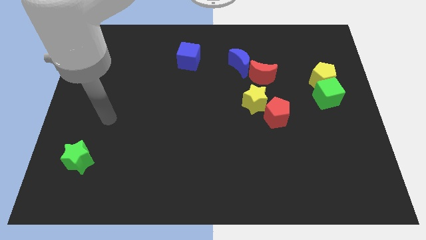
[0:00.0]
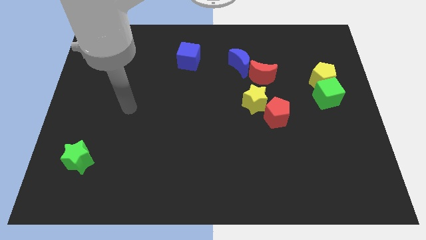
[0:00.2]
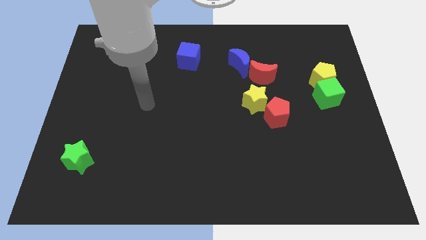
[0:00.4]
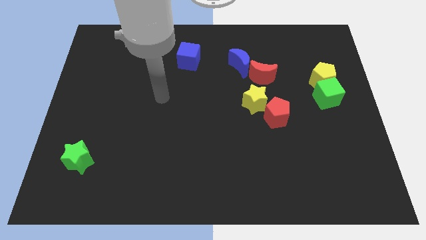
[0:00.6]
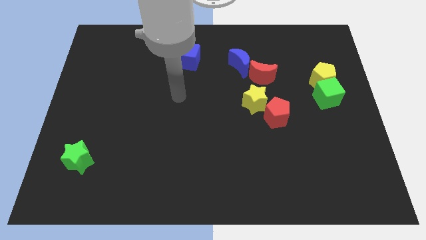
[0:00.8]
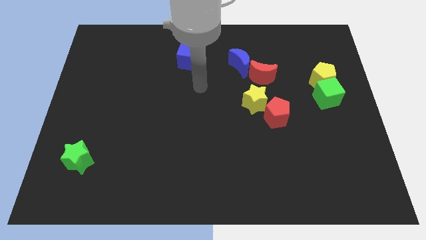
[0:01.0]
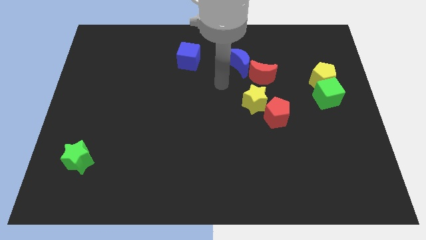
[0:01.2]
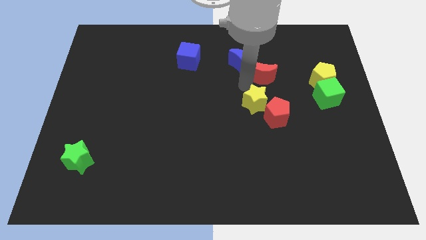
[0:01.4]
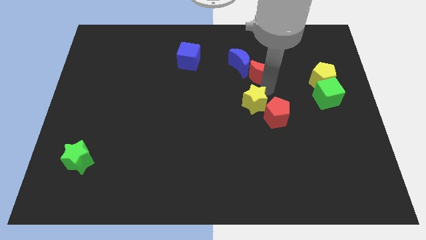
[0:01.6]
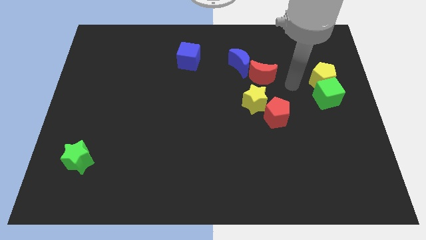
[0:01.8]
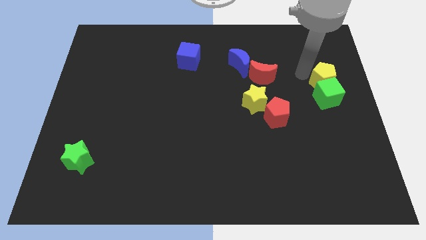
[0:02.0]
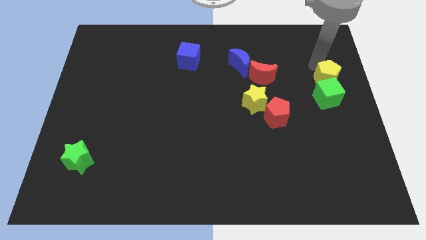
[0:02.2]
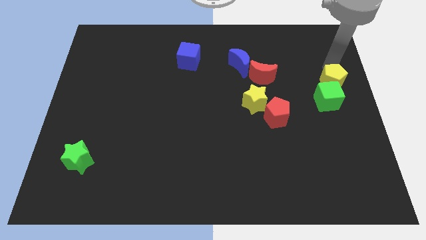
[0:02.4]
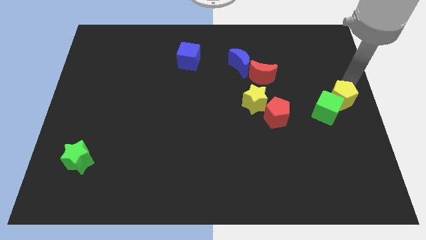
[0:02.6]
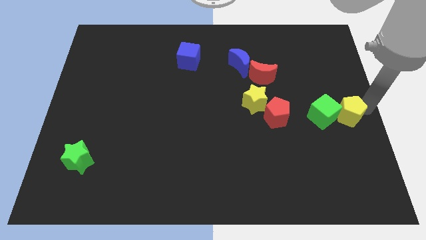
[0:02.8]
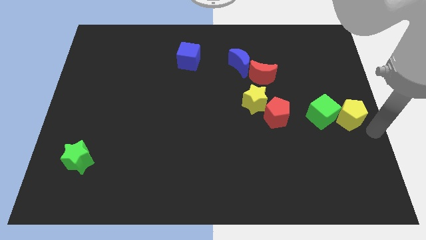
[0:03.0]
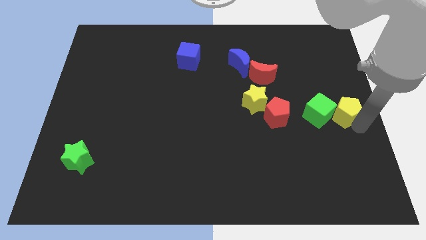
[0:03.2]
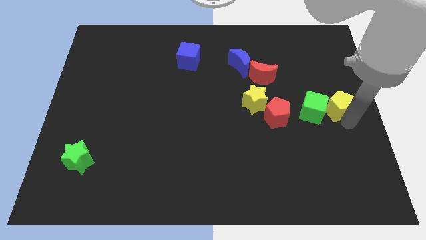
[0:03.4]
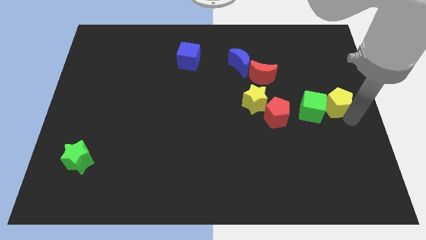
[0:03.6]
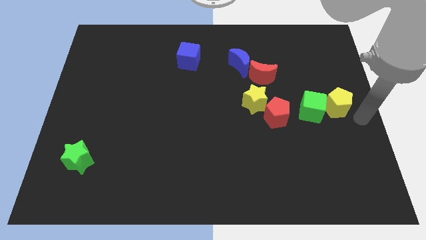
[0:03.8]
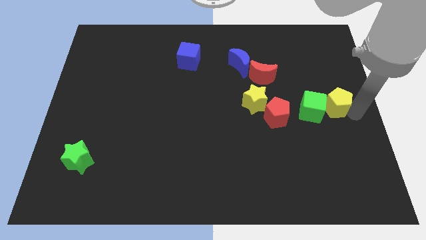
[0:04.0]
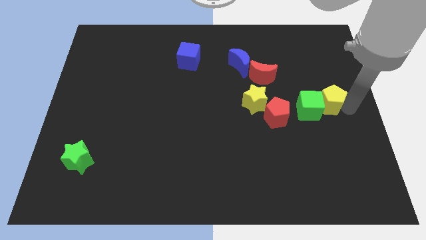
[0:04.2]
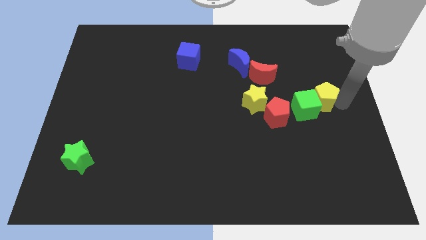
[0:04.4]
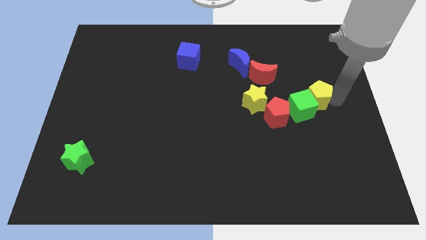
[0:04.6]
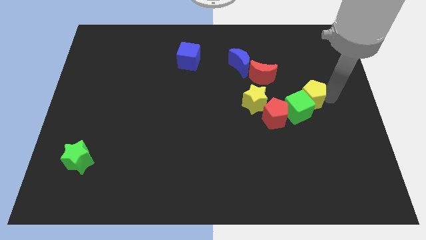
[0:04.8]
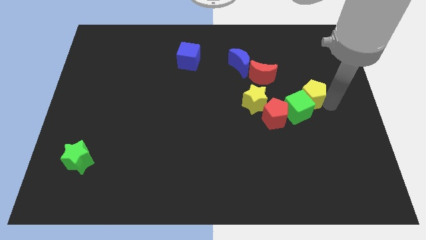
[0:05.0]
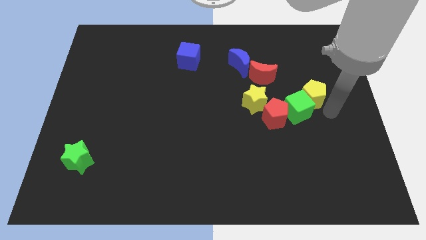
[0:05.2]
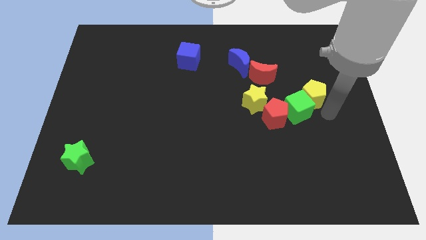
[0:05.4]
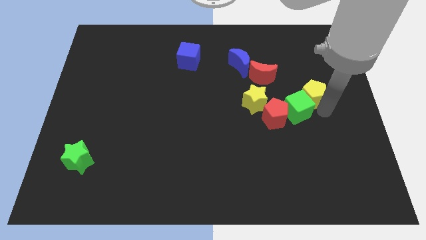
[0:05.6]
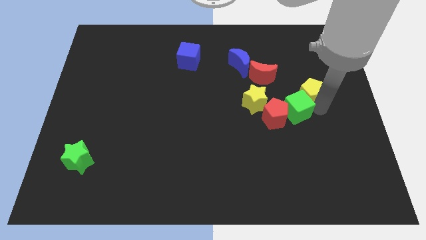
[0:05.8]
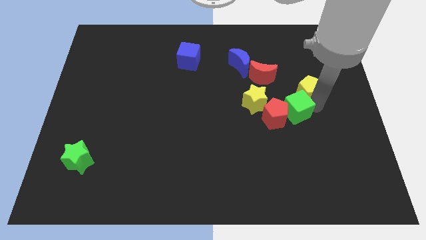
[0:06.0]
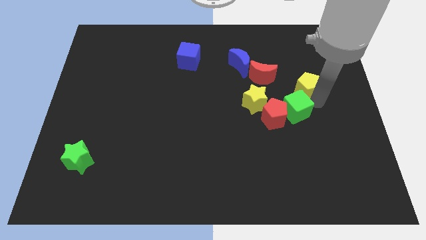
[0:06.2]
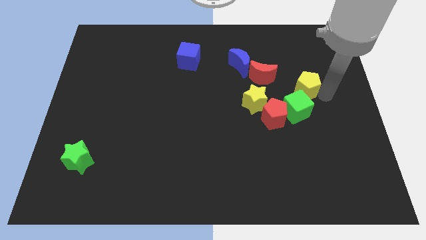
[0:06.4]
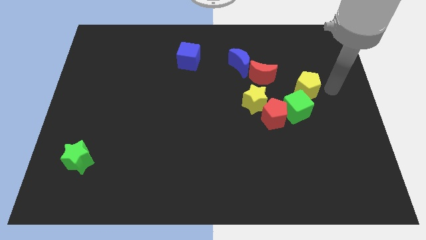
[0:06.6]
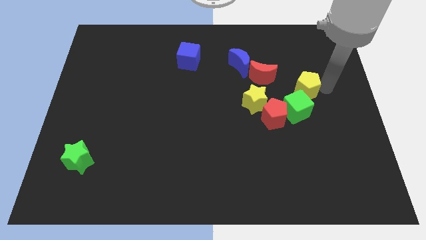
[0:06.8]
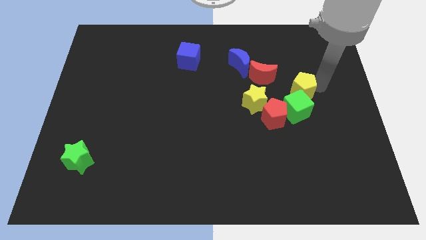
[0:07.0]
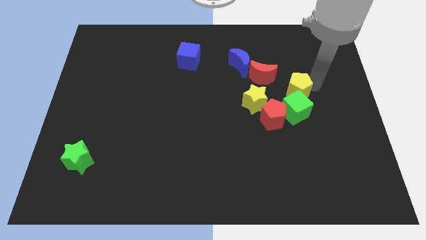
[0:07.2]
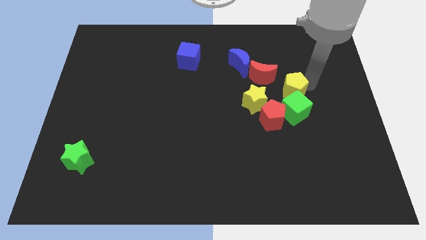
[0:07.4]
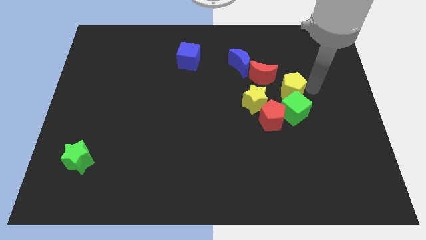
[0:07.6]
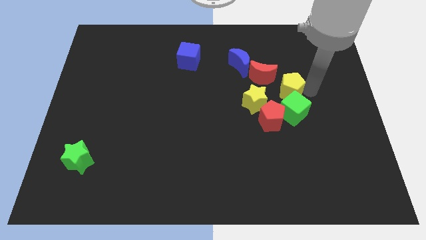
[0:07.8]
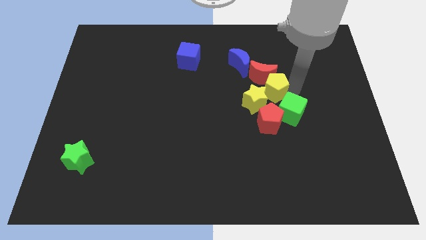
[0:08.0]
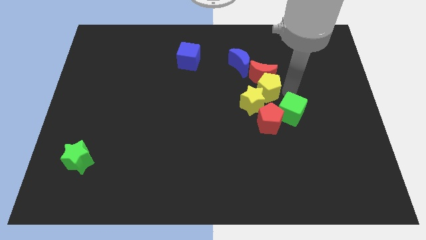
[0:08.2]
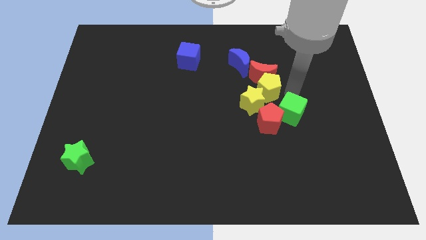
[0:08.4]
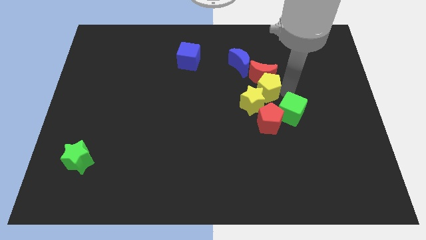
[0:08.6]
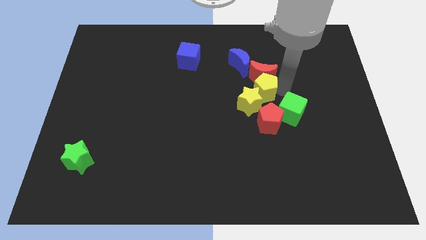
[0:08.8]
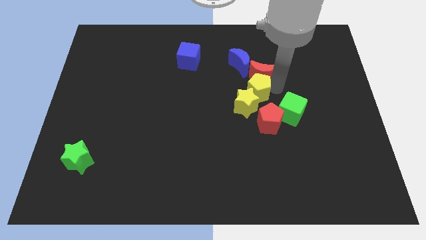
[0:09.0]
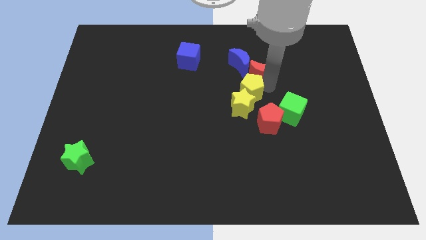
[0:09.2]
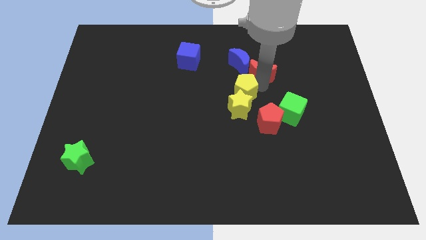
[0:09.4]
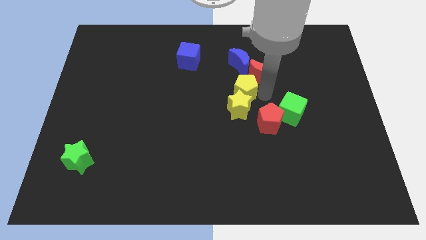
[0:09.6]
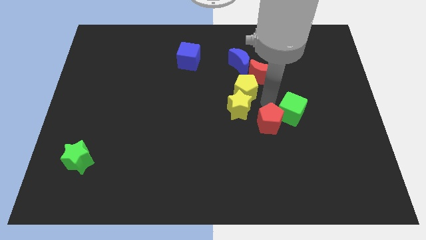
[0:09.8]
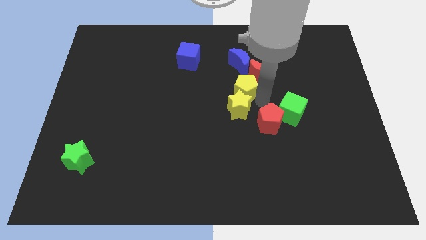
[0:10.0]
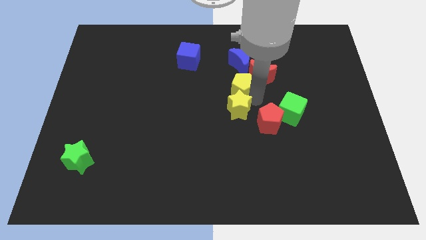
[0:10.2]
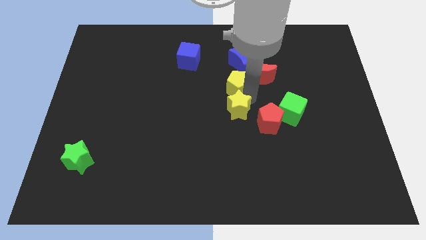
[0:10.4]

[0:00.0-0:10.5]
move the yellow pentagon diagonally down and to the left of the blue moon

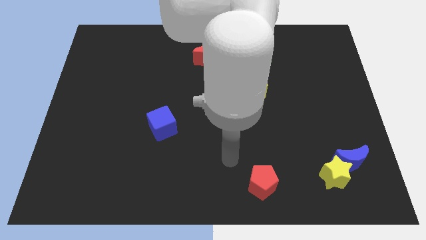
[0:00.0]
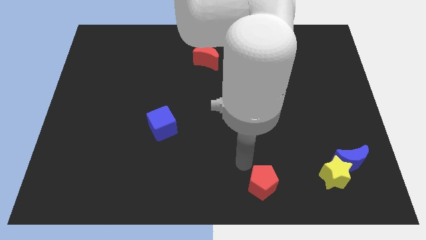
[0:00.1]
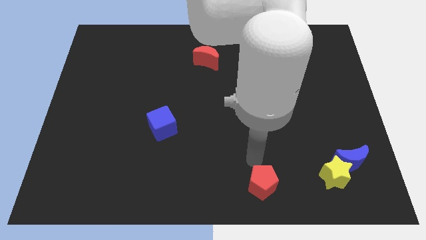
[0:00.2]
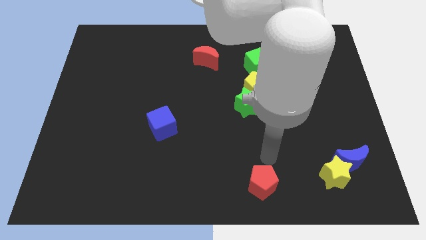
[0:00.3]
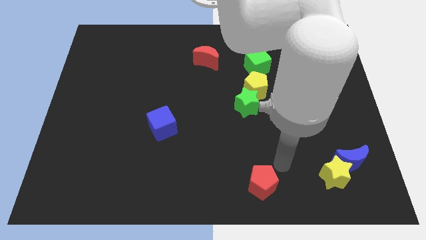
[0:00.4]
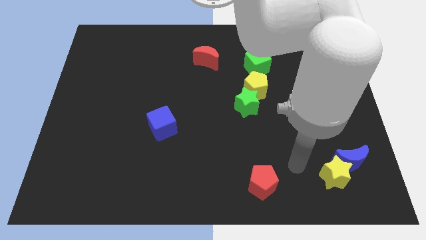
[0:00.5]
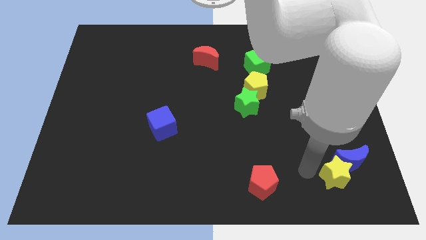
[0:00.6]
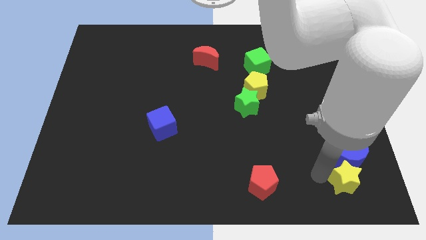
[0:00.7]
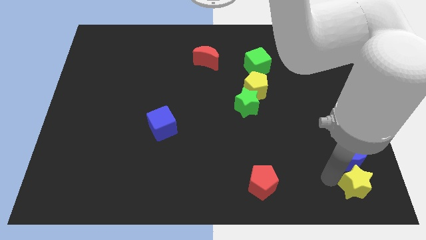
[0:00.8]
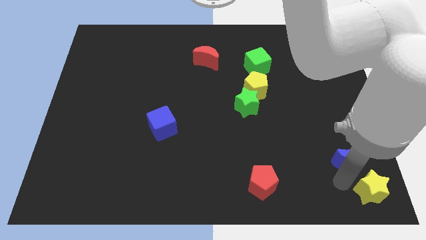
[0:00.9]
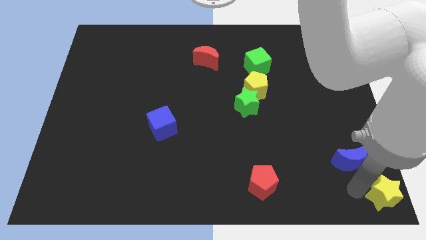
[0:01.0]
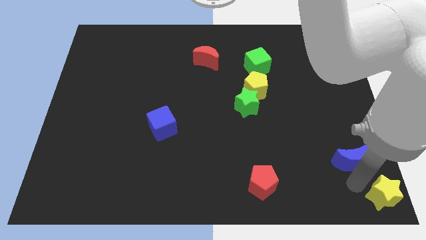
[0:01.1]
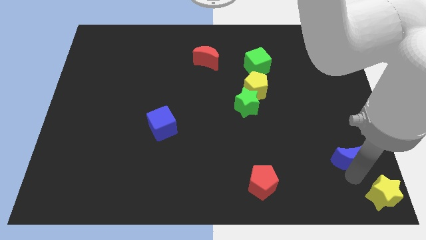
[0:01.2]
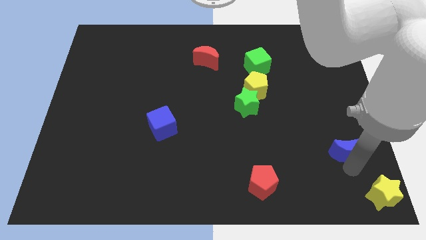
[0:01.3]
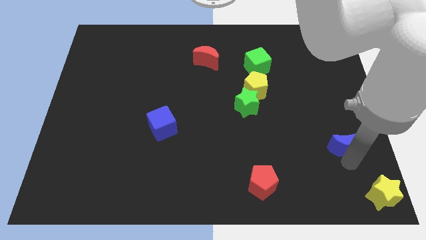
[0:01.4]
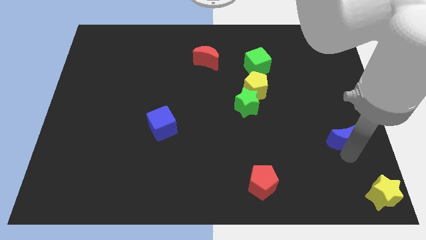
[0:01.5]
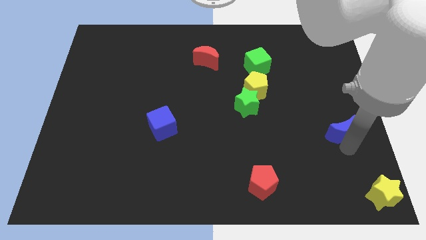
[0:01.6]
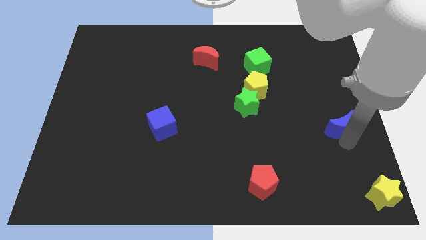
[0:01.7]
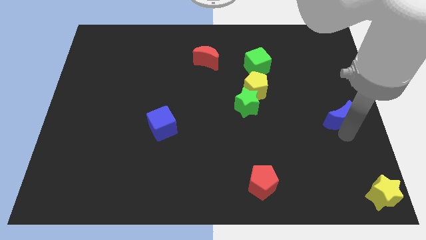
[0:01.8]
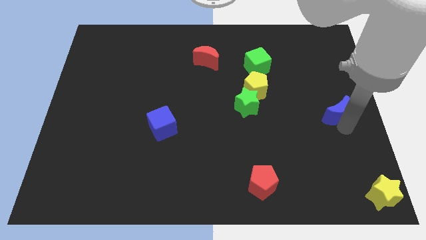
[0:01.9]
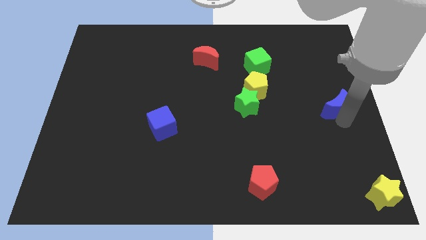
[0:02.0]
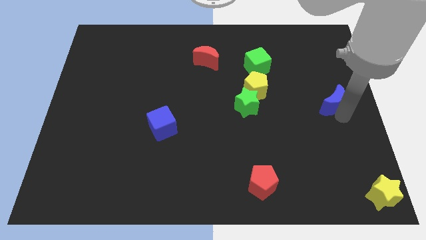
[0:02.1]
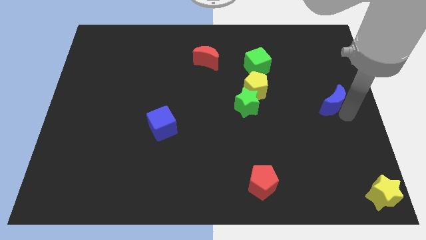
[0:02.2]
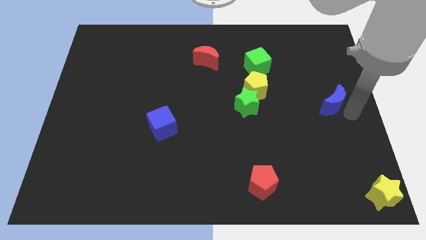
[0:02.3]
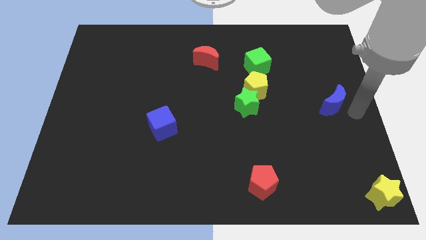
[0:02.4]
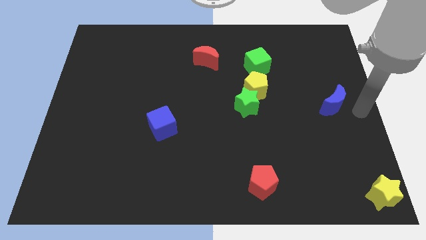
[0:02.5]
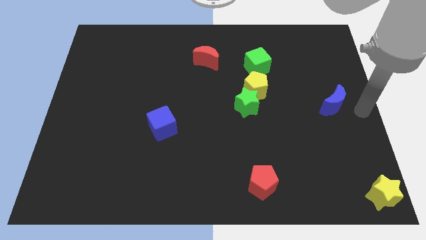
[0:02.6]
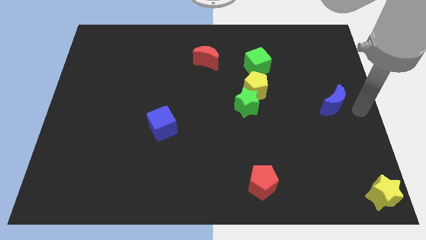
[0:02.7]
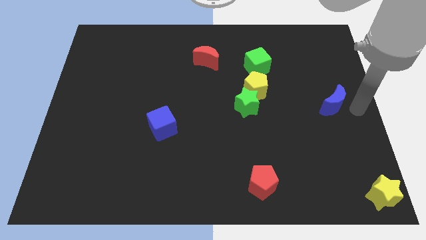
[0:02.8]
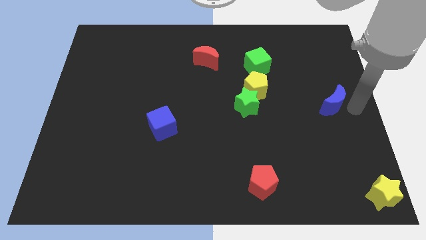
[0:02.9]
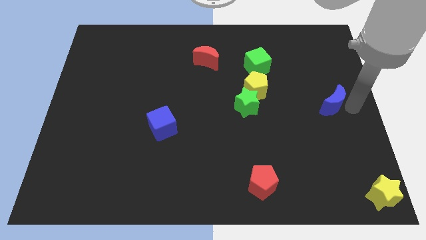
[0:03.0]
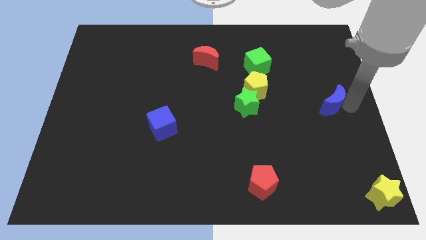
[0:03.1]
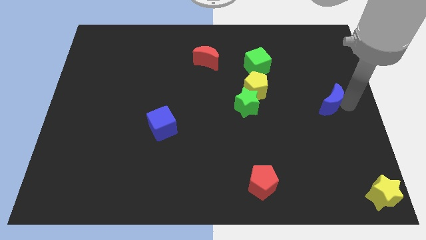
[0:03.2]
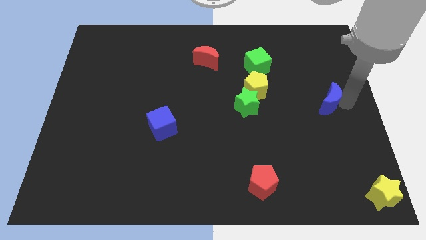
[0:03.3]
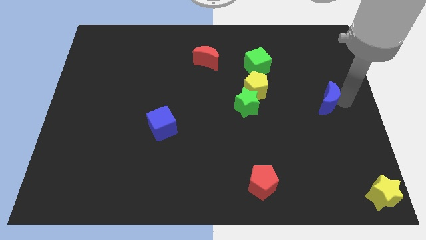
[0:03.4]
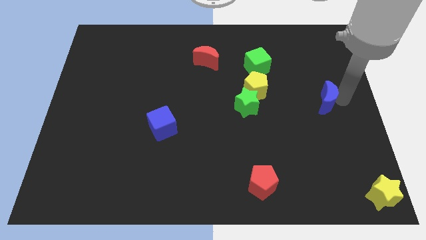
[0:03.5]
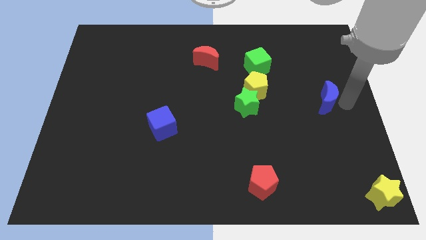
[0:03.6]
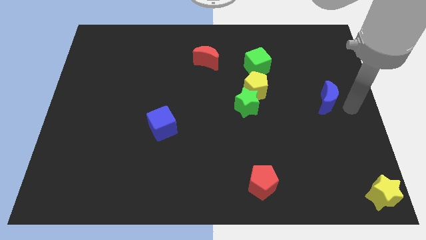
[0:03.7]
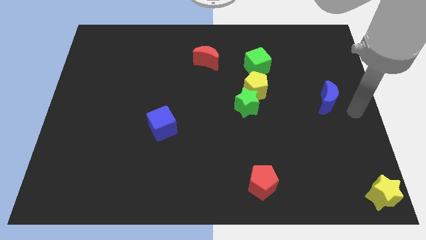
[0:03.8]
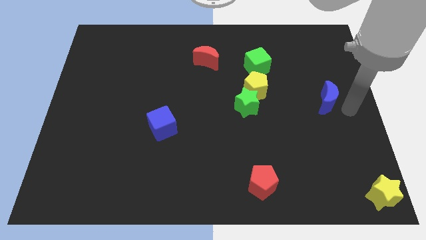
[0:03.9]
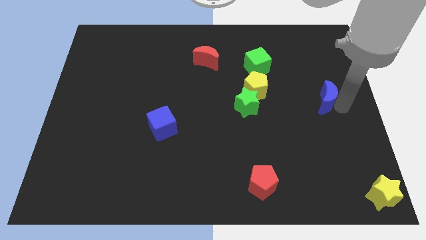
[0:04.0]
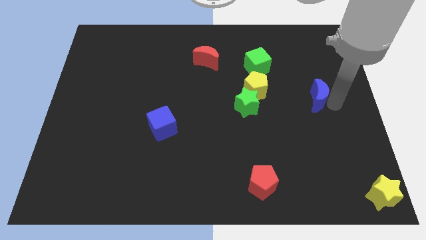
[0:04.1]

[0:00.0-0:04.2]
put the blue moon right of the yellow pentagon
